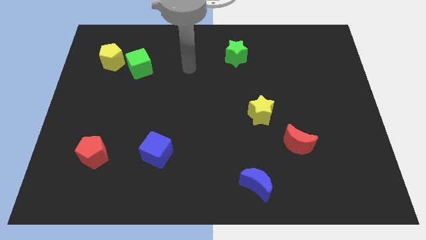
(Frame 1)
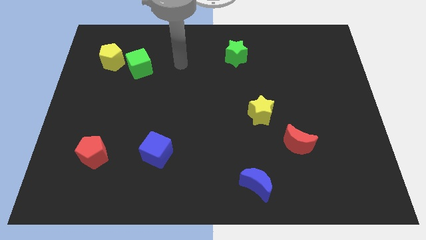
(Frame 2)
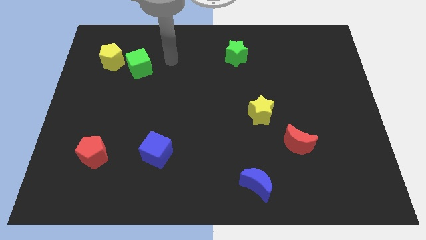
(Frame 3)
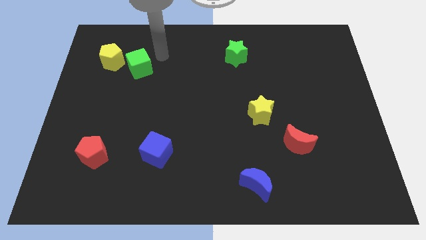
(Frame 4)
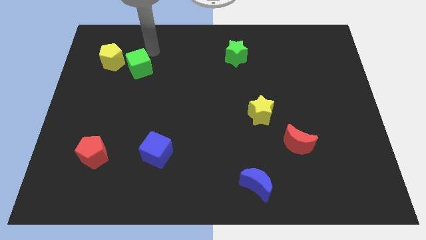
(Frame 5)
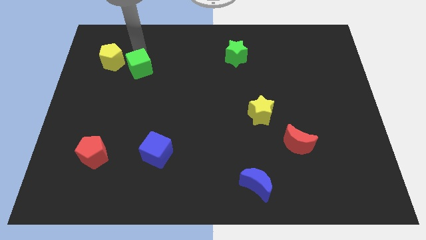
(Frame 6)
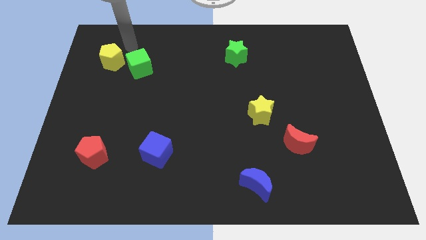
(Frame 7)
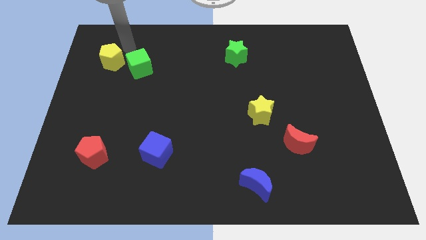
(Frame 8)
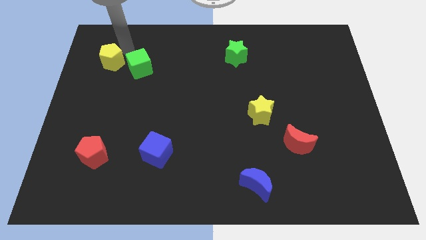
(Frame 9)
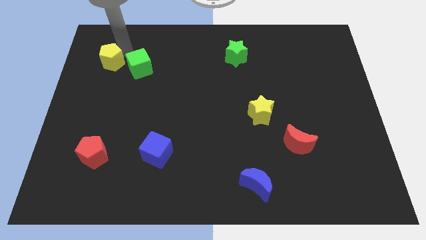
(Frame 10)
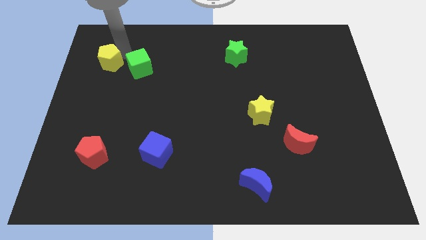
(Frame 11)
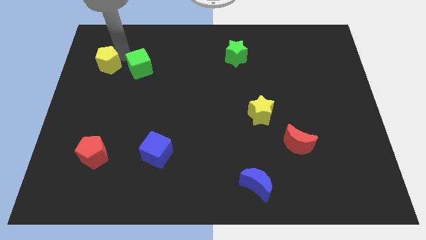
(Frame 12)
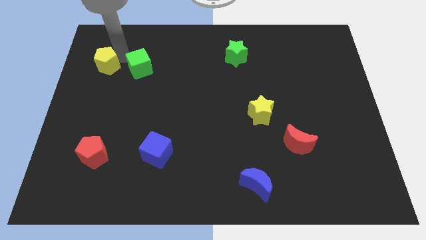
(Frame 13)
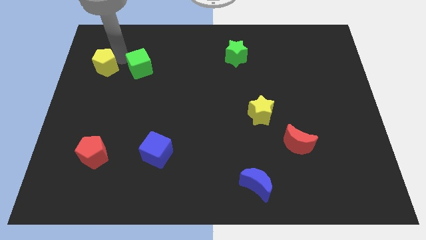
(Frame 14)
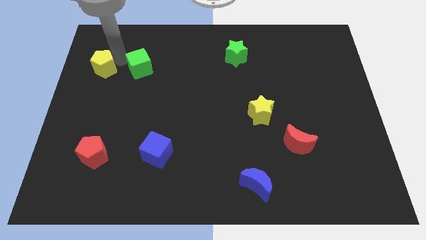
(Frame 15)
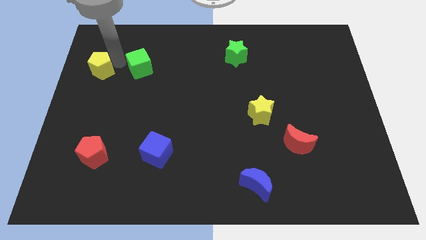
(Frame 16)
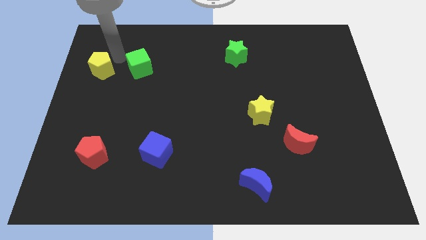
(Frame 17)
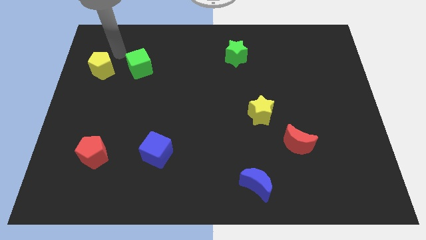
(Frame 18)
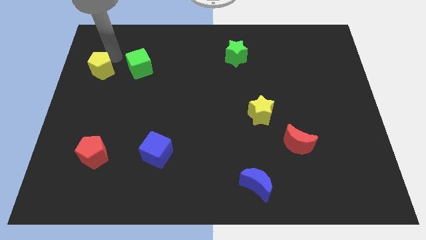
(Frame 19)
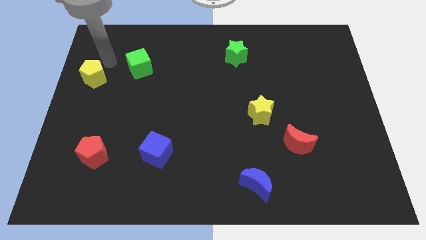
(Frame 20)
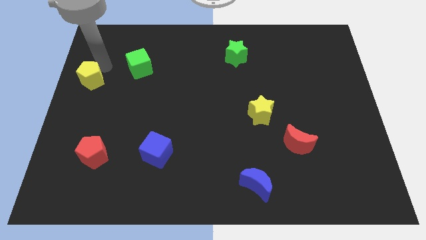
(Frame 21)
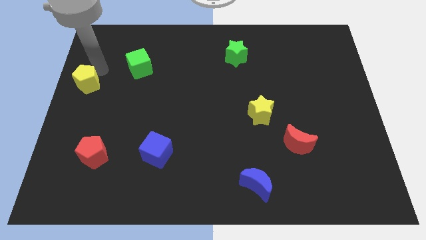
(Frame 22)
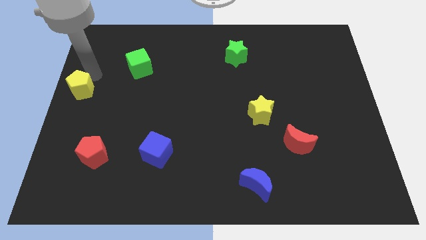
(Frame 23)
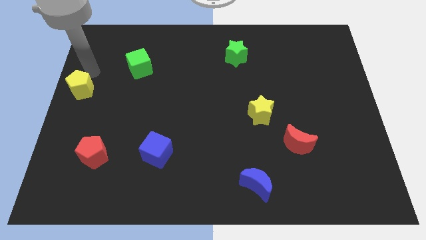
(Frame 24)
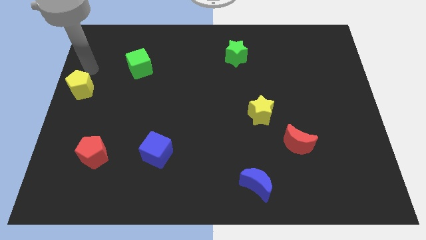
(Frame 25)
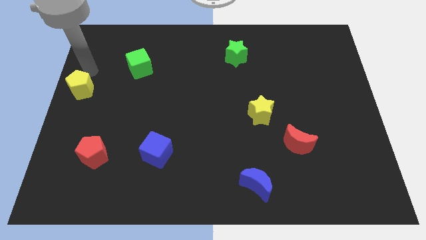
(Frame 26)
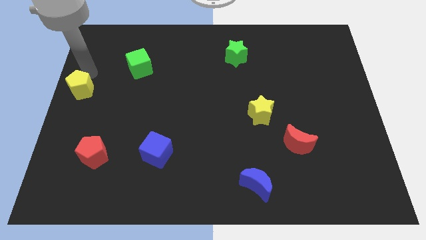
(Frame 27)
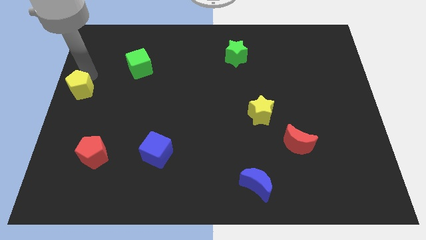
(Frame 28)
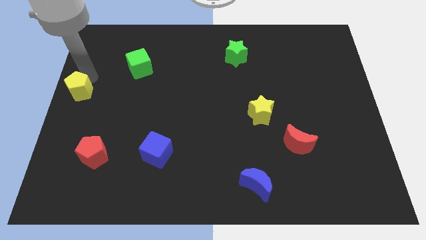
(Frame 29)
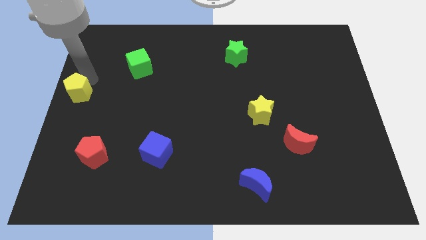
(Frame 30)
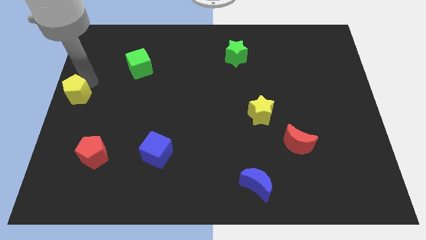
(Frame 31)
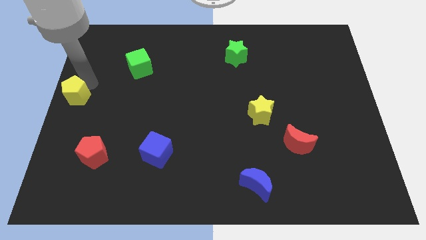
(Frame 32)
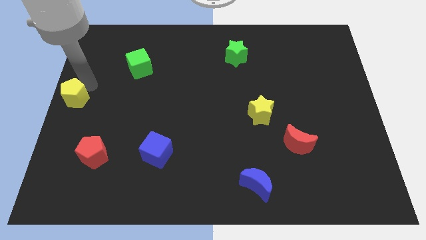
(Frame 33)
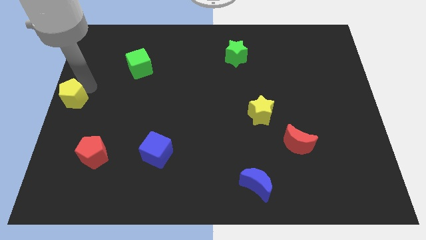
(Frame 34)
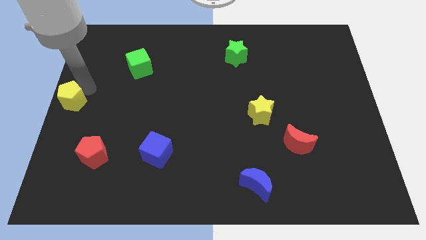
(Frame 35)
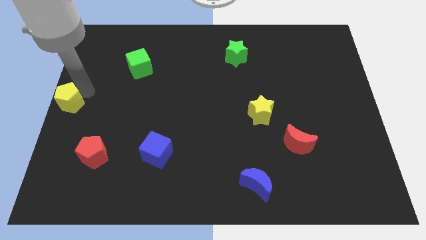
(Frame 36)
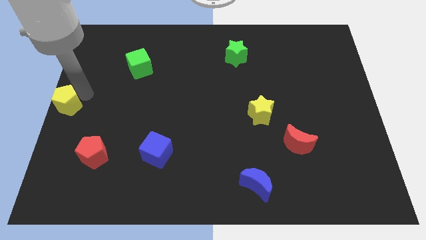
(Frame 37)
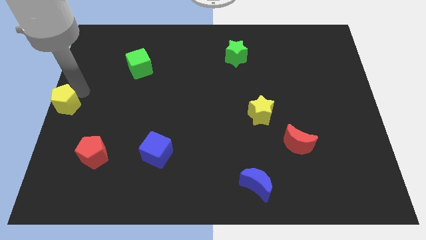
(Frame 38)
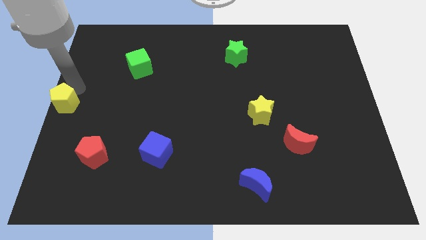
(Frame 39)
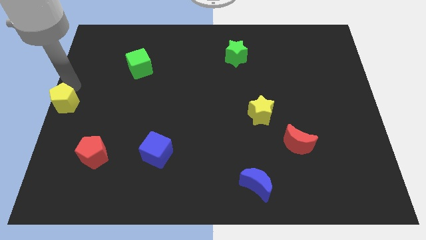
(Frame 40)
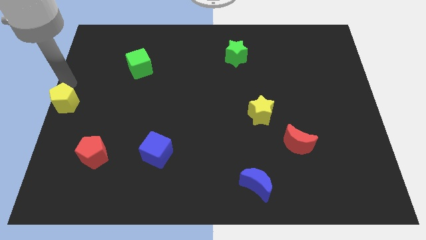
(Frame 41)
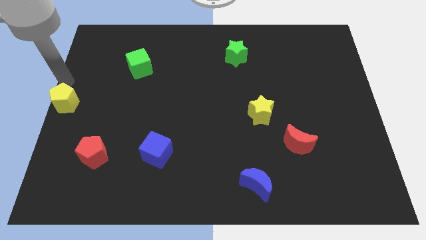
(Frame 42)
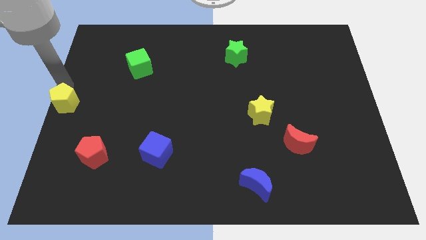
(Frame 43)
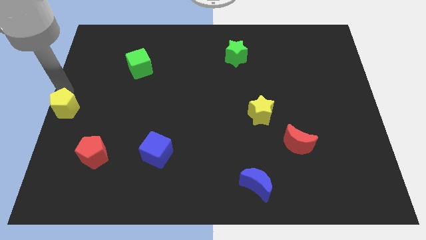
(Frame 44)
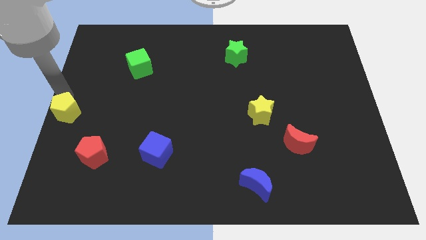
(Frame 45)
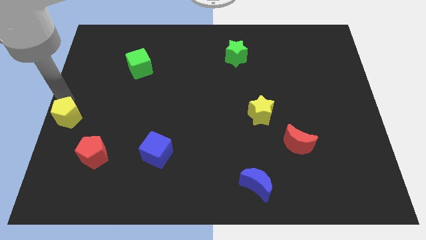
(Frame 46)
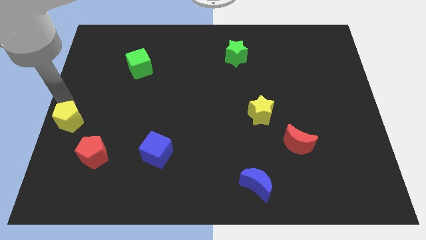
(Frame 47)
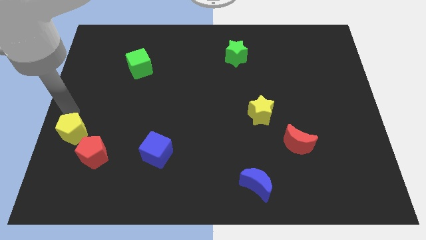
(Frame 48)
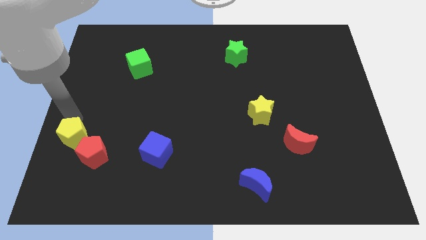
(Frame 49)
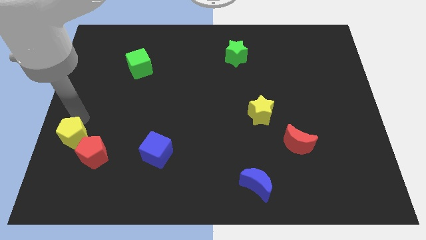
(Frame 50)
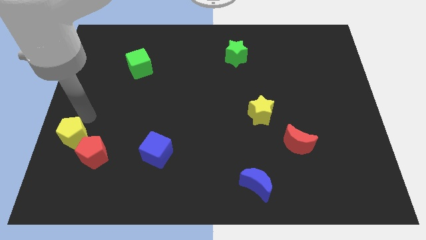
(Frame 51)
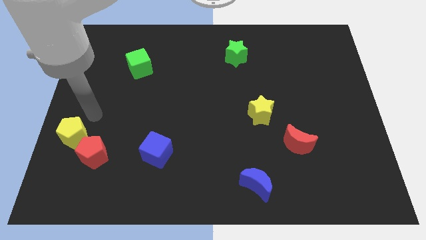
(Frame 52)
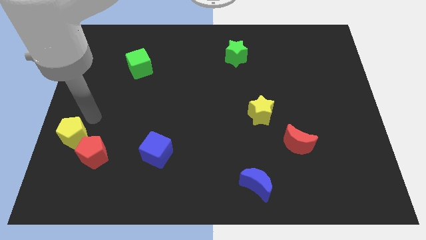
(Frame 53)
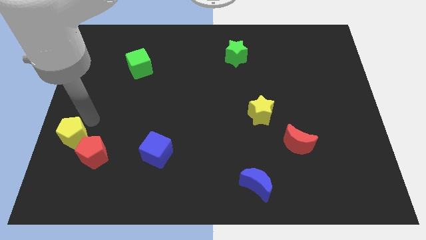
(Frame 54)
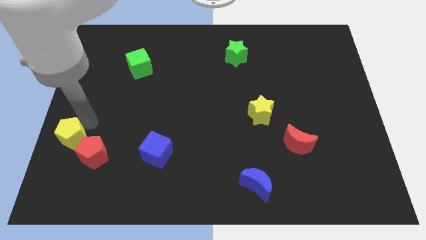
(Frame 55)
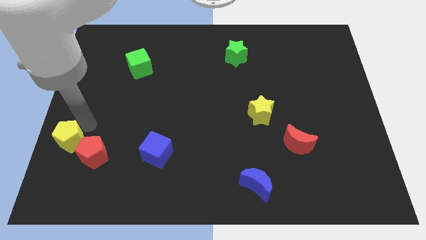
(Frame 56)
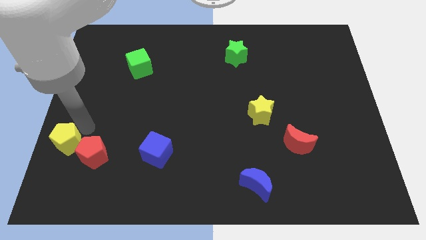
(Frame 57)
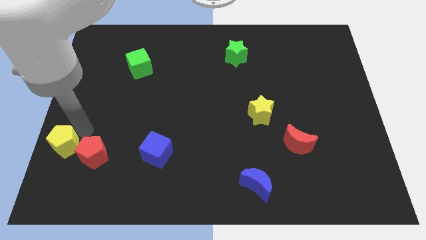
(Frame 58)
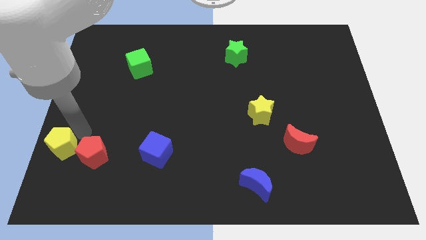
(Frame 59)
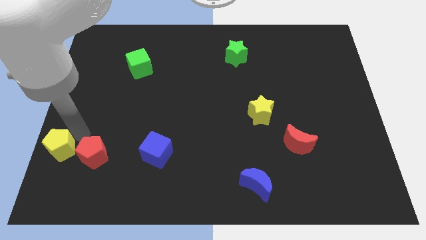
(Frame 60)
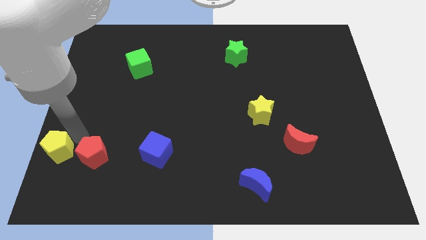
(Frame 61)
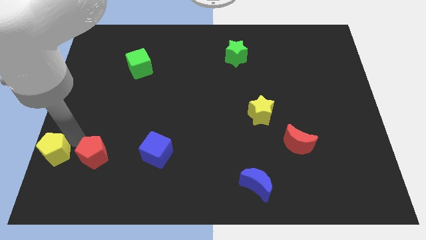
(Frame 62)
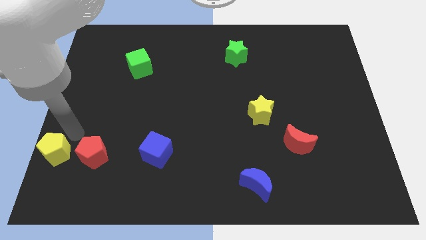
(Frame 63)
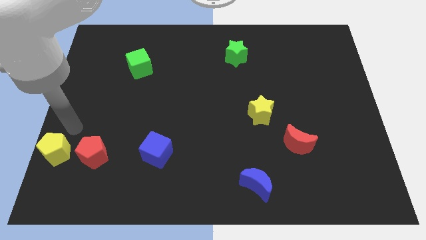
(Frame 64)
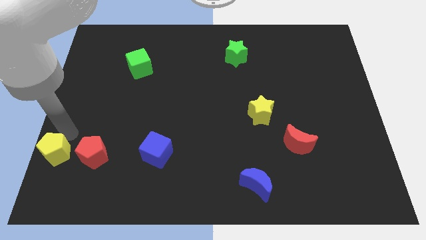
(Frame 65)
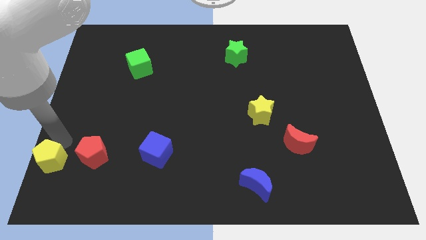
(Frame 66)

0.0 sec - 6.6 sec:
put the yellow pentagon to the bottom left of the board
